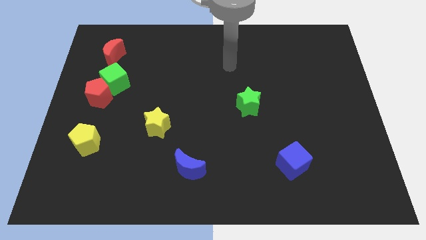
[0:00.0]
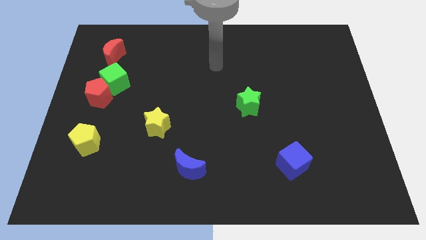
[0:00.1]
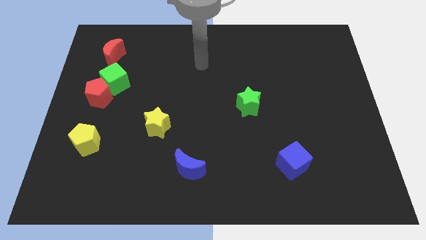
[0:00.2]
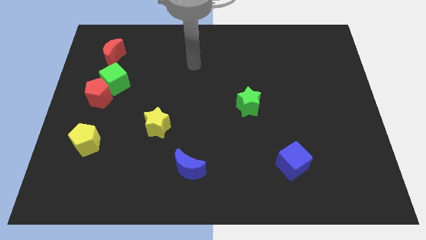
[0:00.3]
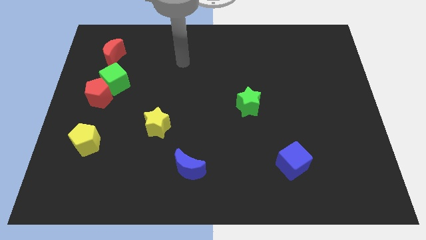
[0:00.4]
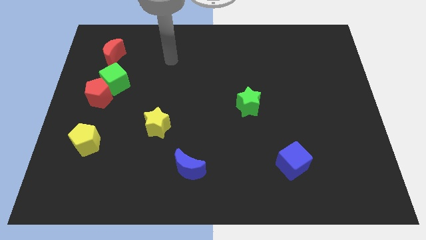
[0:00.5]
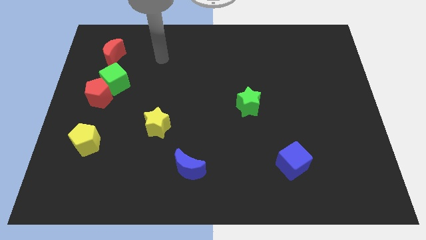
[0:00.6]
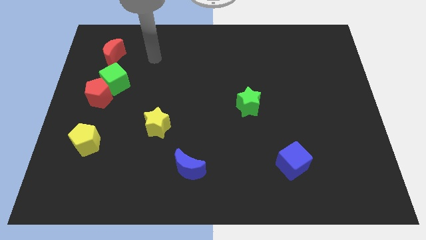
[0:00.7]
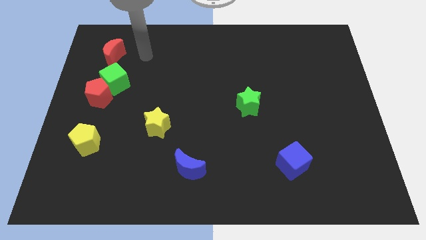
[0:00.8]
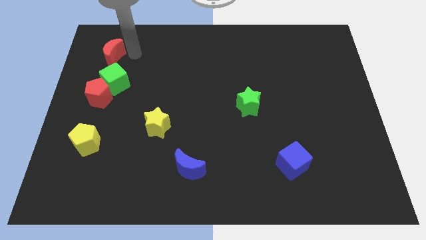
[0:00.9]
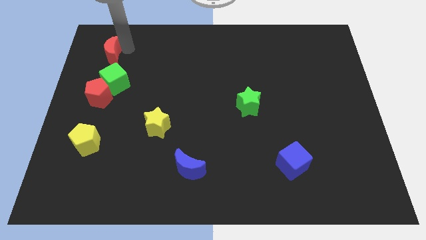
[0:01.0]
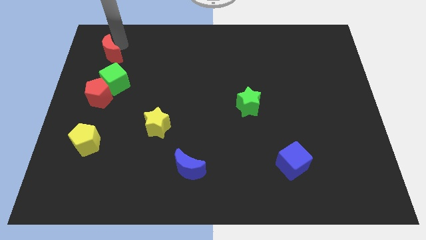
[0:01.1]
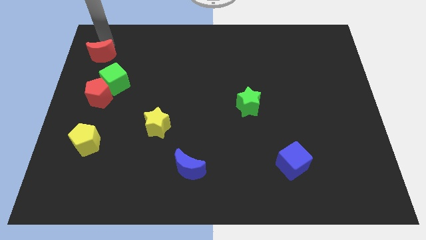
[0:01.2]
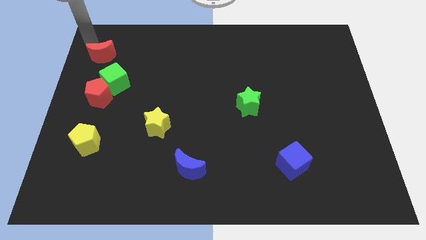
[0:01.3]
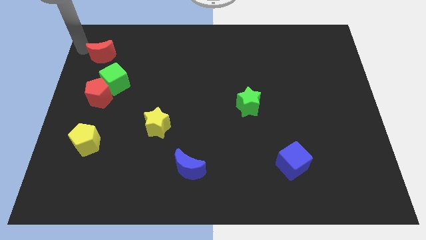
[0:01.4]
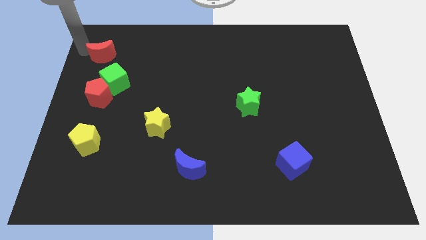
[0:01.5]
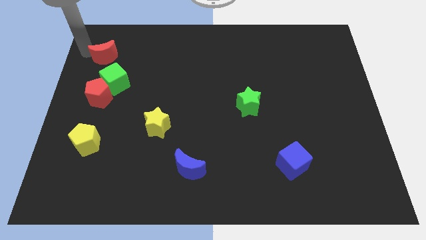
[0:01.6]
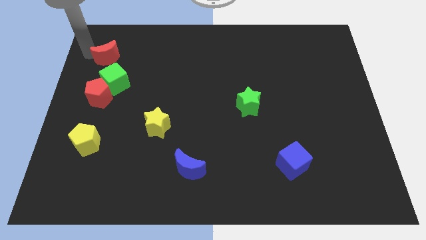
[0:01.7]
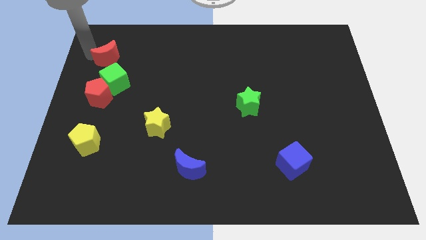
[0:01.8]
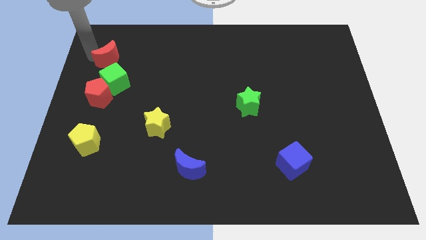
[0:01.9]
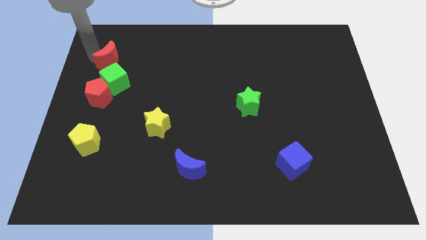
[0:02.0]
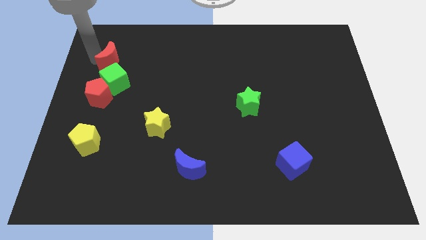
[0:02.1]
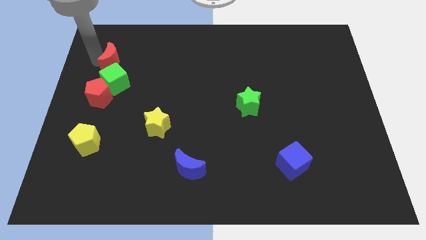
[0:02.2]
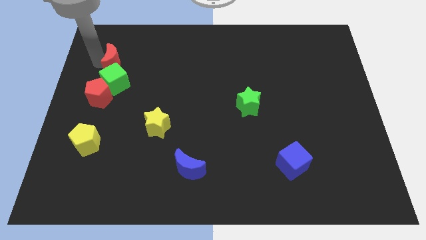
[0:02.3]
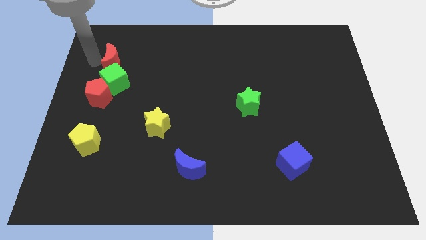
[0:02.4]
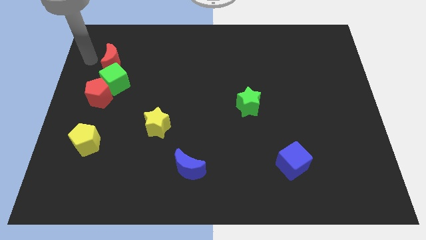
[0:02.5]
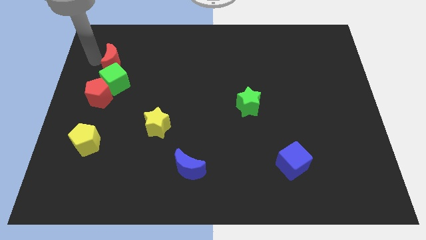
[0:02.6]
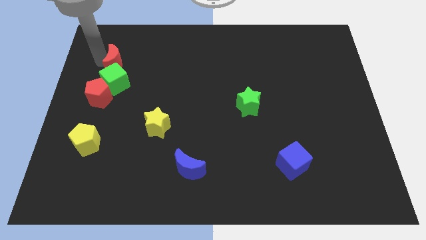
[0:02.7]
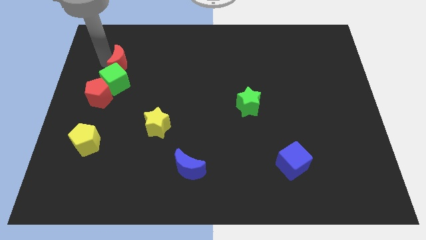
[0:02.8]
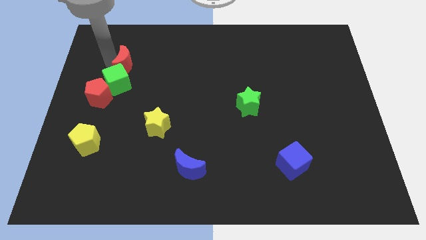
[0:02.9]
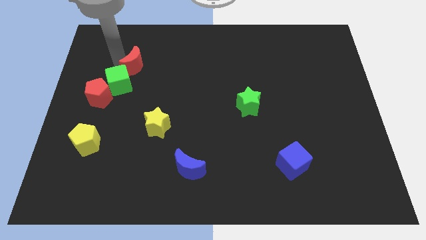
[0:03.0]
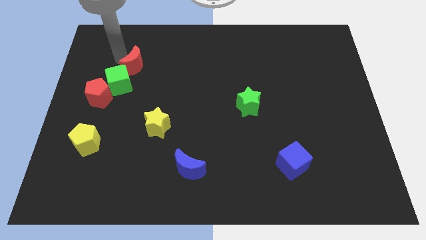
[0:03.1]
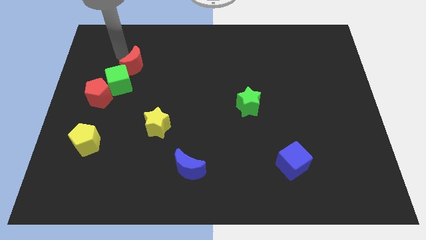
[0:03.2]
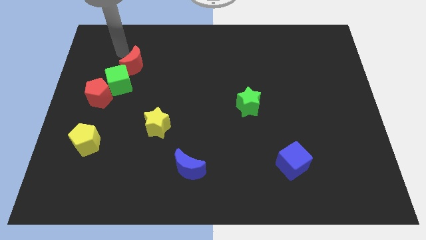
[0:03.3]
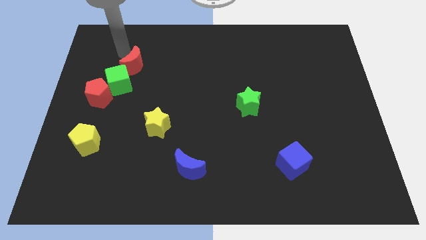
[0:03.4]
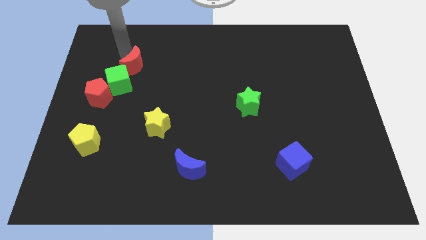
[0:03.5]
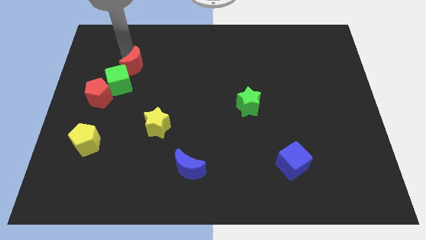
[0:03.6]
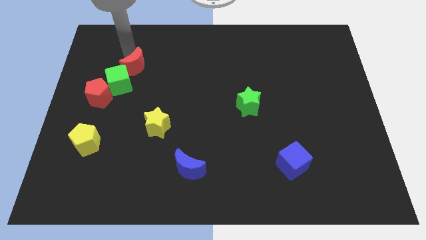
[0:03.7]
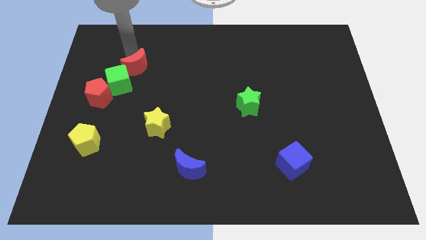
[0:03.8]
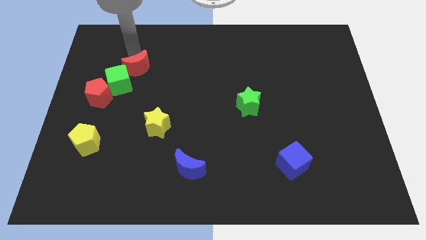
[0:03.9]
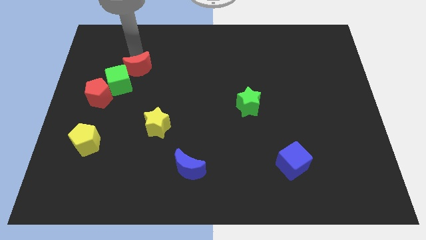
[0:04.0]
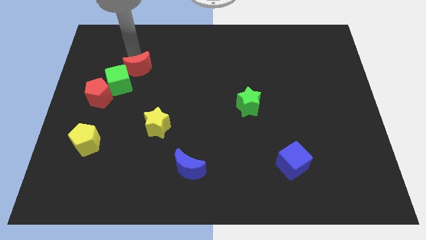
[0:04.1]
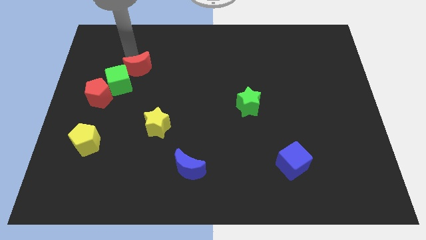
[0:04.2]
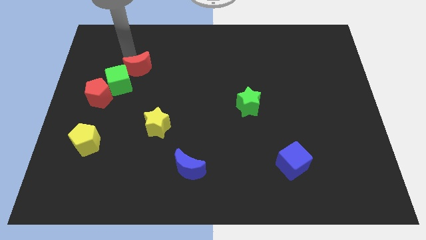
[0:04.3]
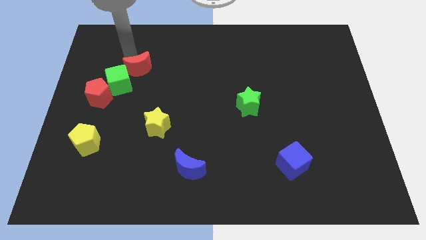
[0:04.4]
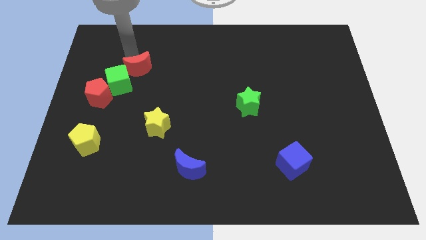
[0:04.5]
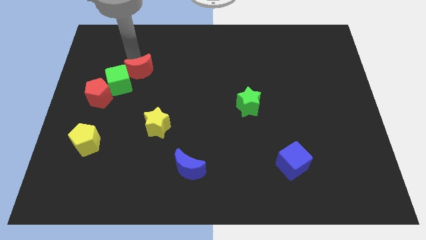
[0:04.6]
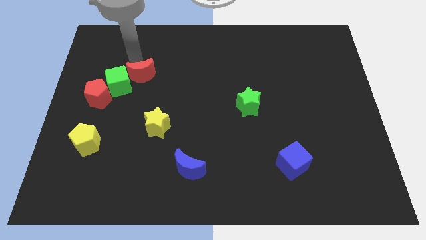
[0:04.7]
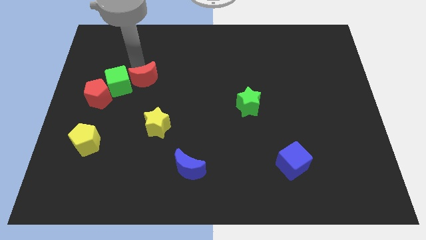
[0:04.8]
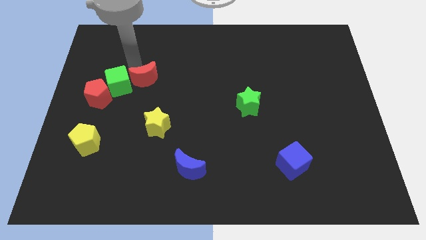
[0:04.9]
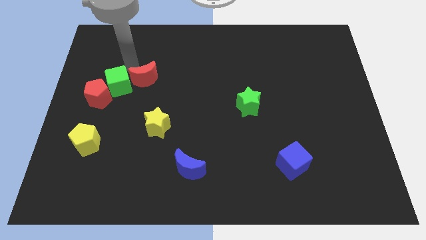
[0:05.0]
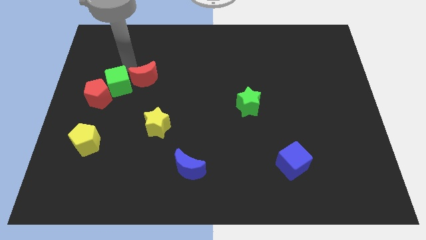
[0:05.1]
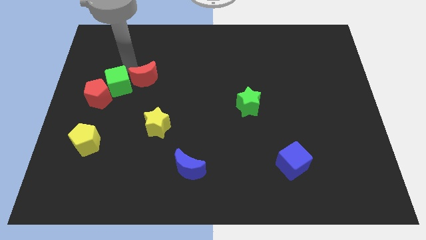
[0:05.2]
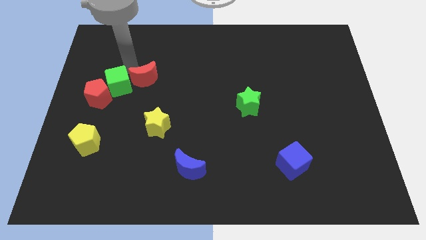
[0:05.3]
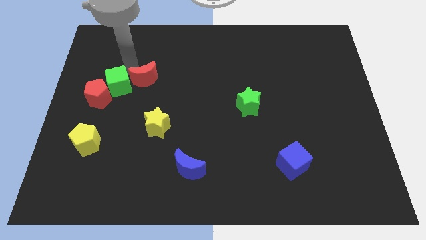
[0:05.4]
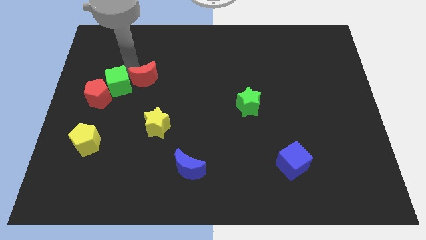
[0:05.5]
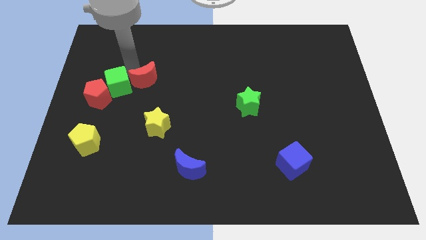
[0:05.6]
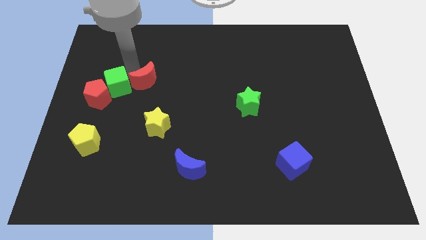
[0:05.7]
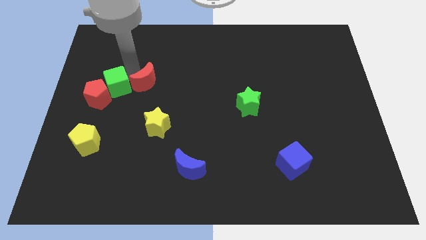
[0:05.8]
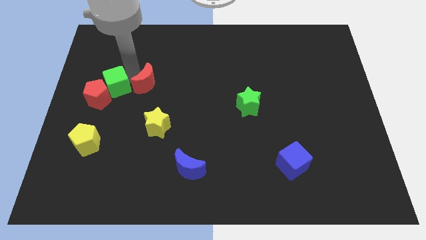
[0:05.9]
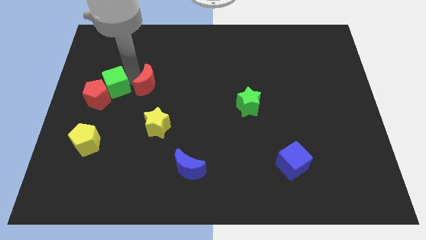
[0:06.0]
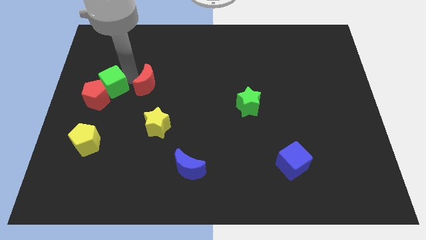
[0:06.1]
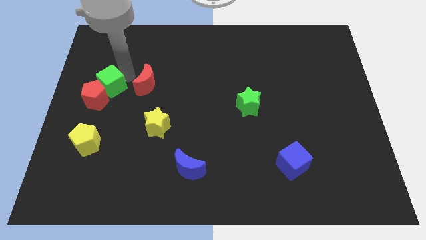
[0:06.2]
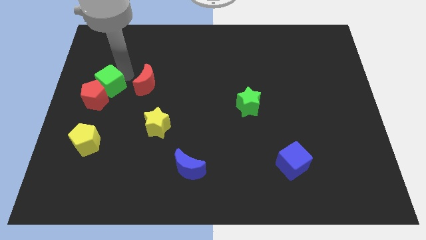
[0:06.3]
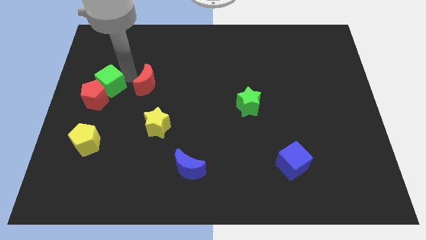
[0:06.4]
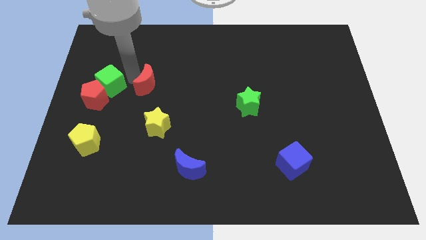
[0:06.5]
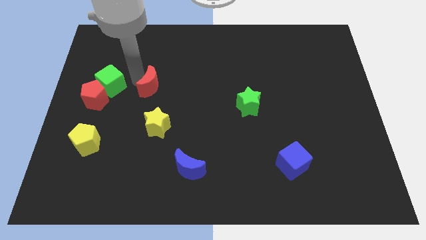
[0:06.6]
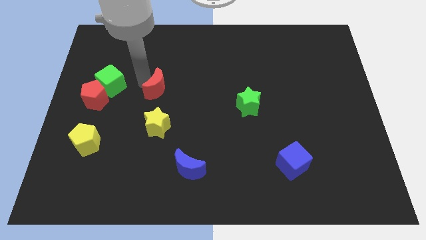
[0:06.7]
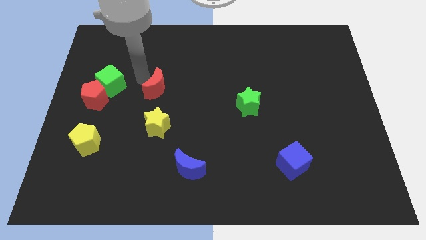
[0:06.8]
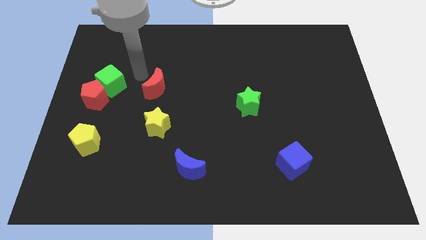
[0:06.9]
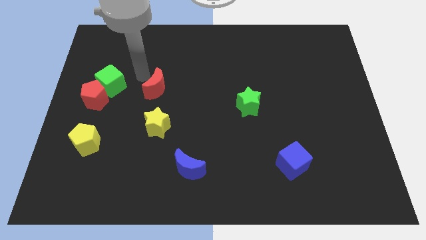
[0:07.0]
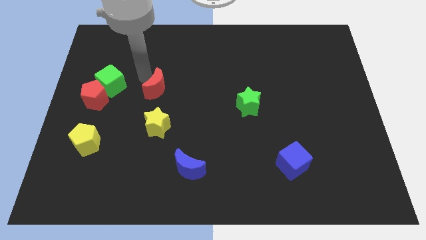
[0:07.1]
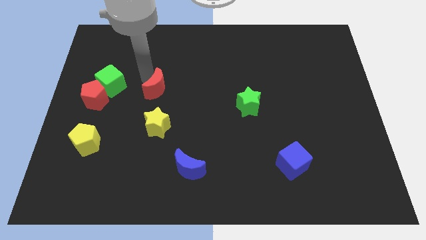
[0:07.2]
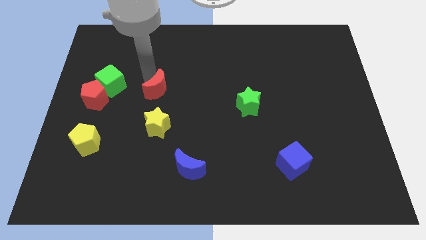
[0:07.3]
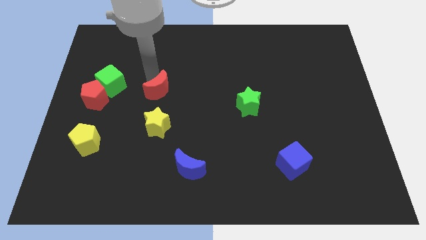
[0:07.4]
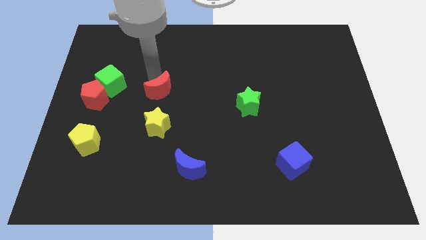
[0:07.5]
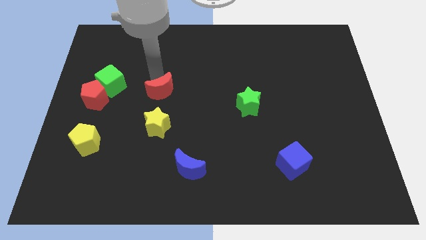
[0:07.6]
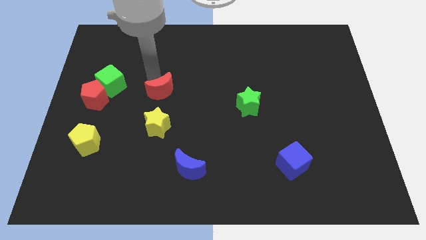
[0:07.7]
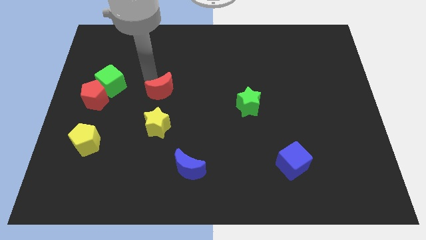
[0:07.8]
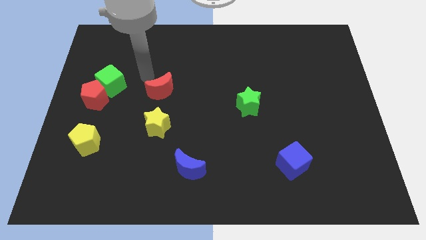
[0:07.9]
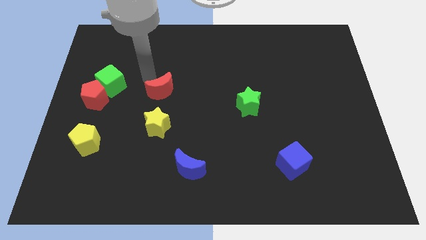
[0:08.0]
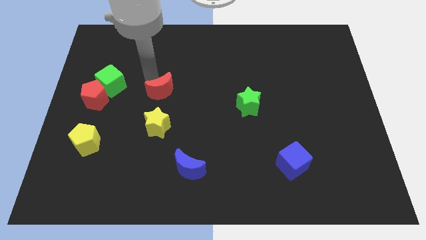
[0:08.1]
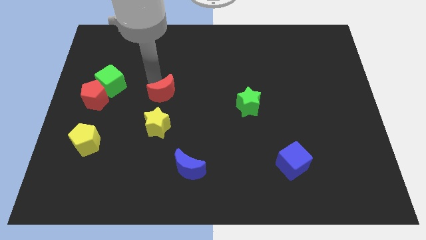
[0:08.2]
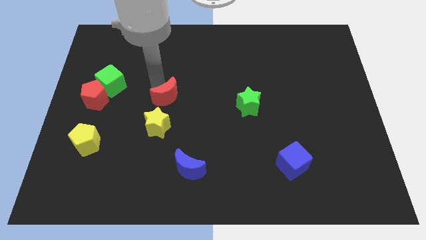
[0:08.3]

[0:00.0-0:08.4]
push the red moon diagonally down and right
